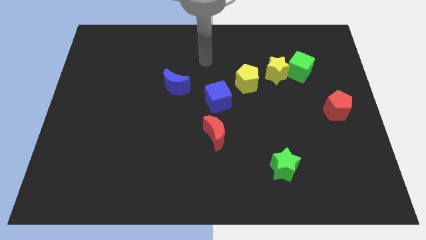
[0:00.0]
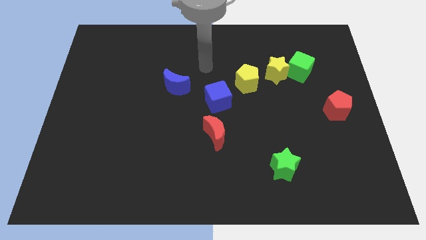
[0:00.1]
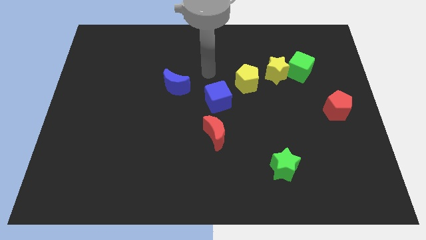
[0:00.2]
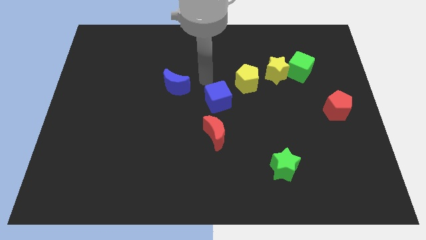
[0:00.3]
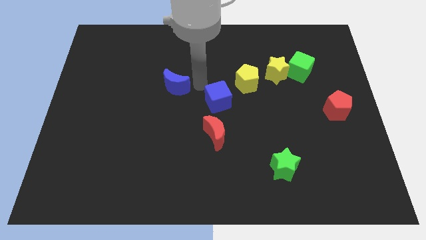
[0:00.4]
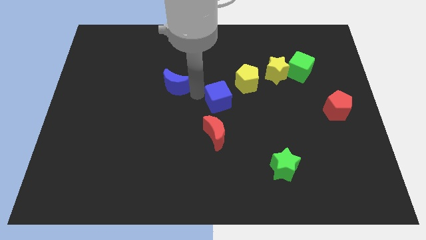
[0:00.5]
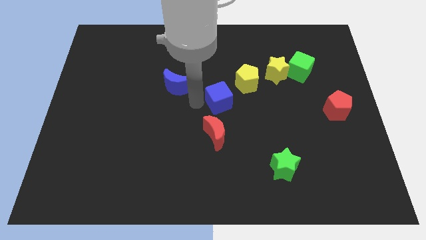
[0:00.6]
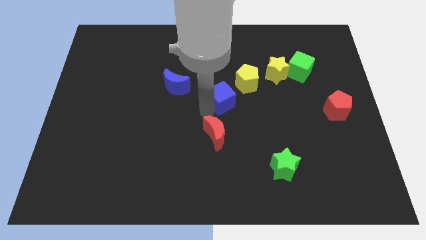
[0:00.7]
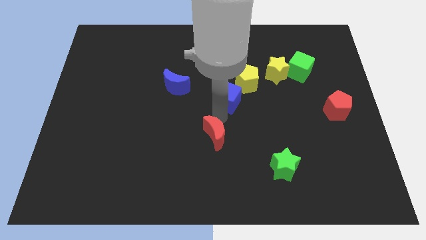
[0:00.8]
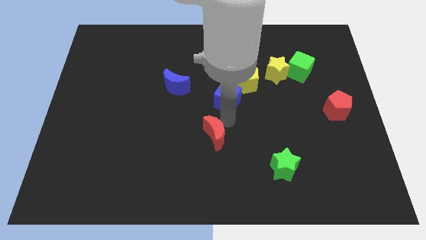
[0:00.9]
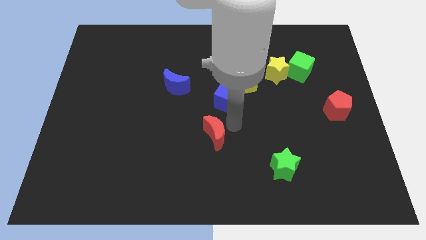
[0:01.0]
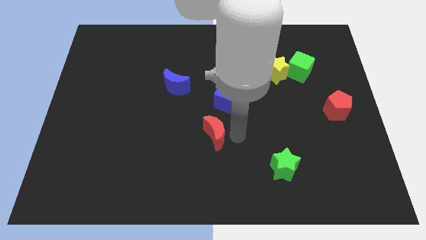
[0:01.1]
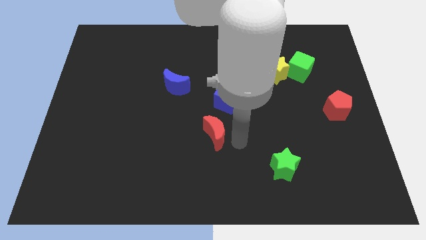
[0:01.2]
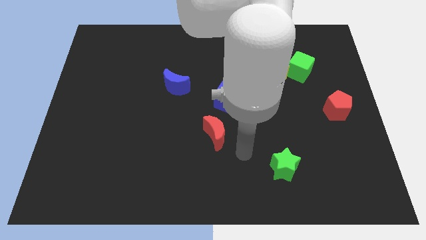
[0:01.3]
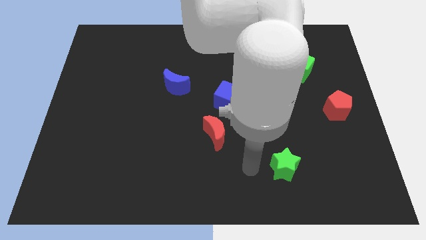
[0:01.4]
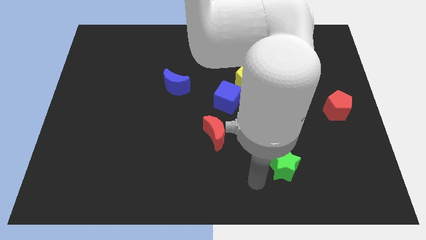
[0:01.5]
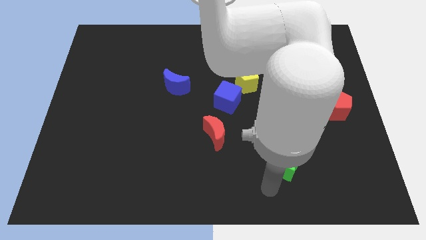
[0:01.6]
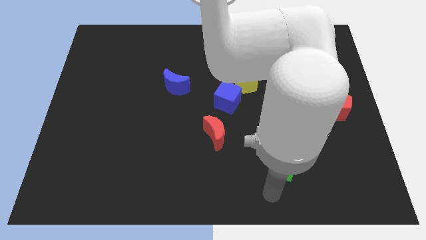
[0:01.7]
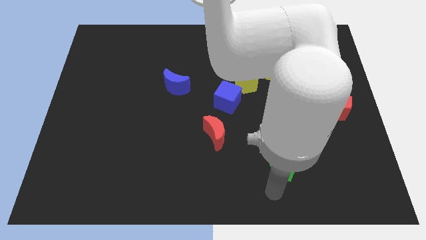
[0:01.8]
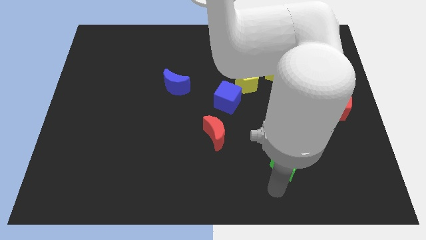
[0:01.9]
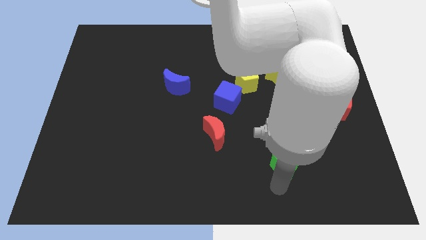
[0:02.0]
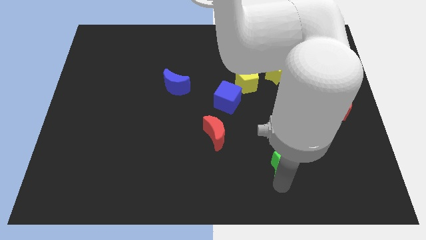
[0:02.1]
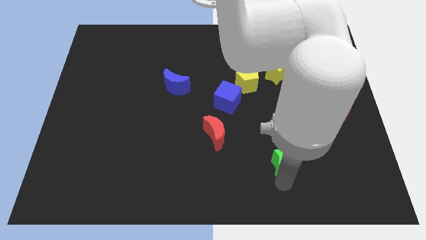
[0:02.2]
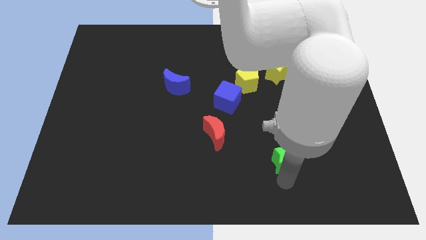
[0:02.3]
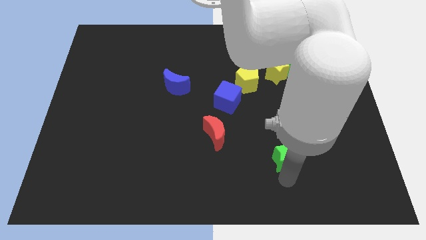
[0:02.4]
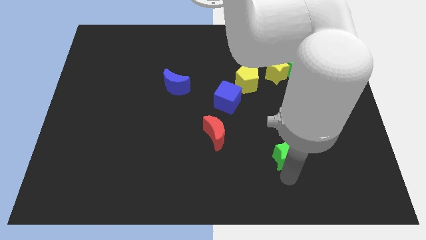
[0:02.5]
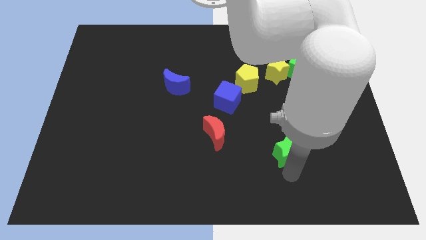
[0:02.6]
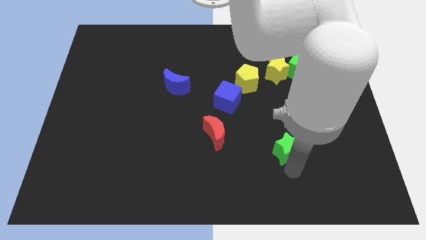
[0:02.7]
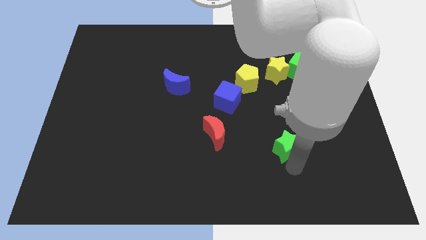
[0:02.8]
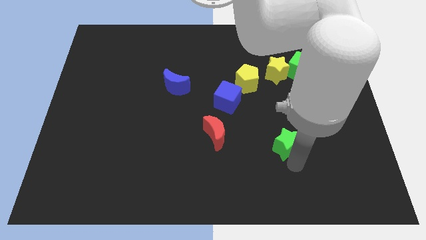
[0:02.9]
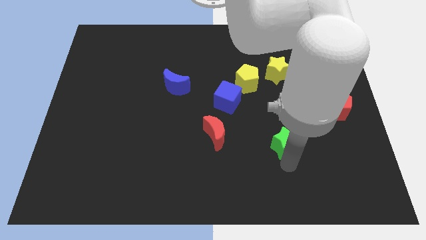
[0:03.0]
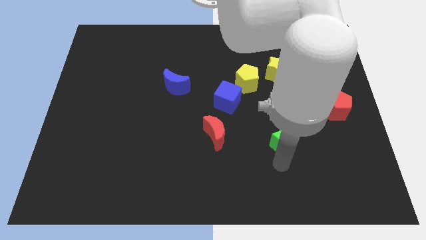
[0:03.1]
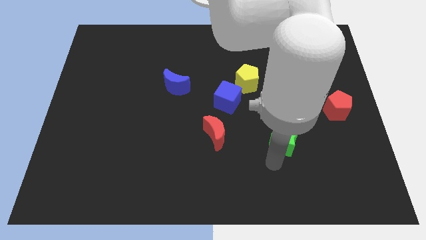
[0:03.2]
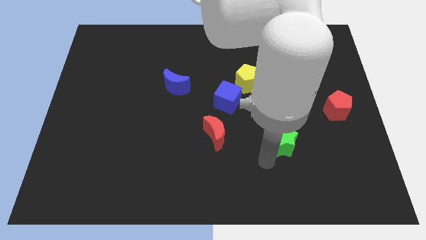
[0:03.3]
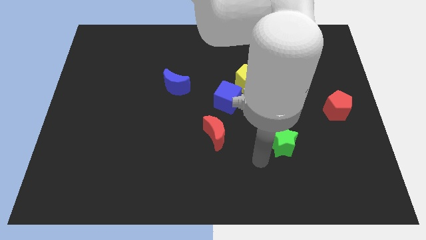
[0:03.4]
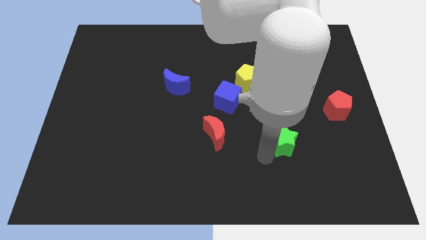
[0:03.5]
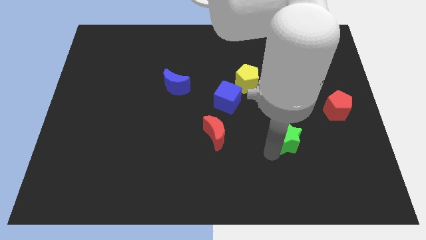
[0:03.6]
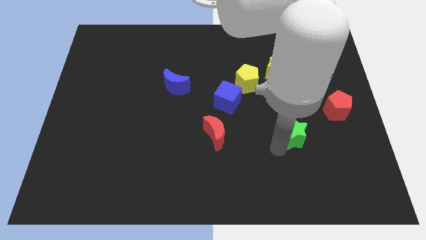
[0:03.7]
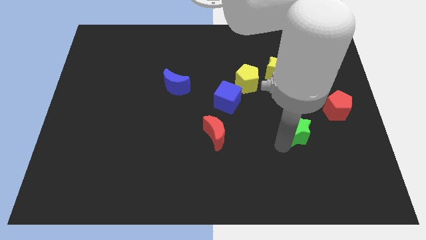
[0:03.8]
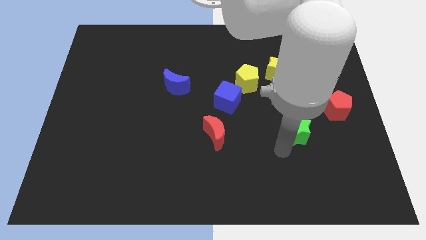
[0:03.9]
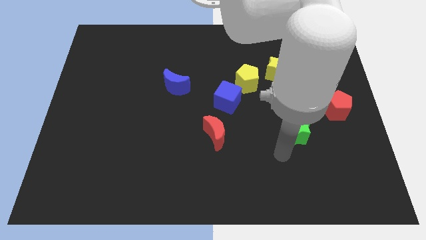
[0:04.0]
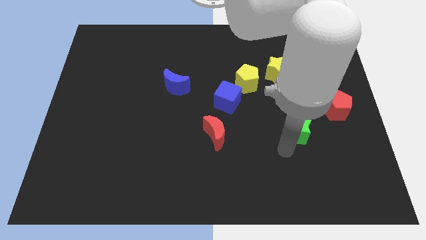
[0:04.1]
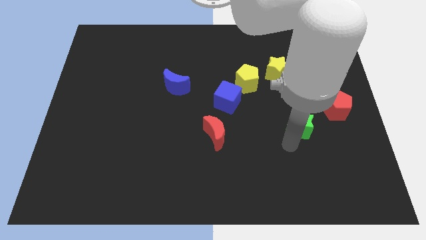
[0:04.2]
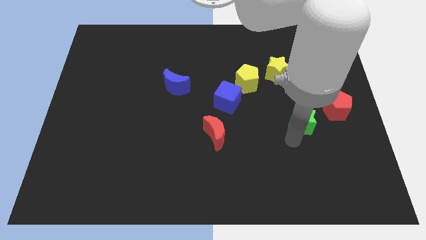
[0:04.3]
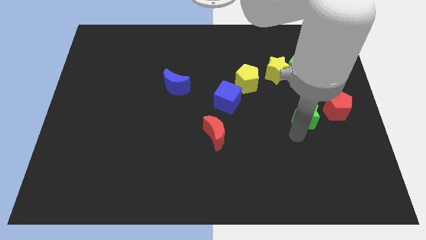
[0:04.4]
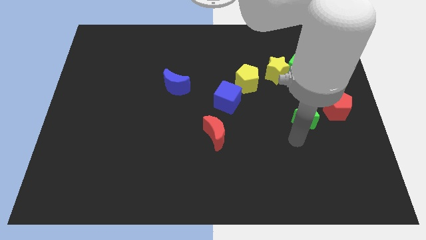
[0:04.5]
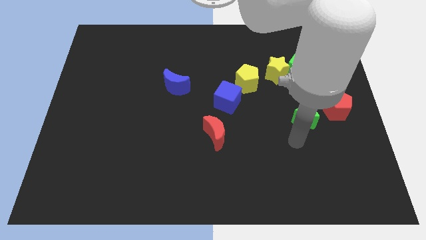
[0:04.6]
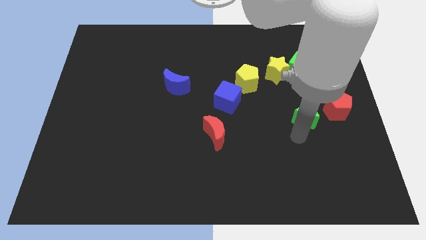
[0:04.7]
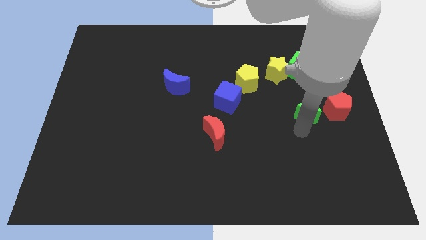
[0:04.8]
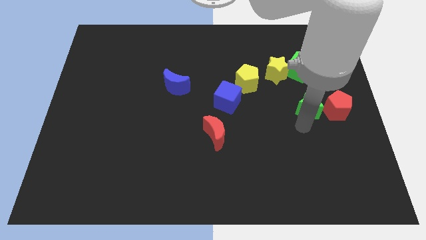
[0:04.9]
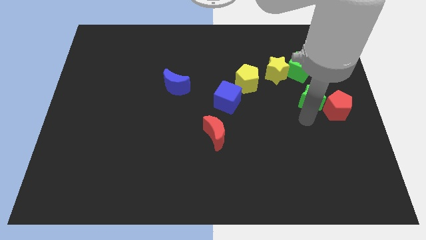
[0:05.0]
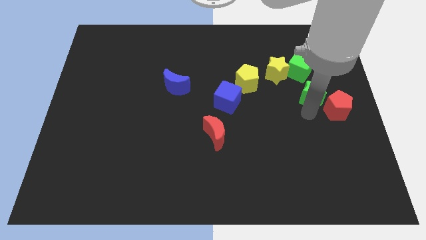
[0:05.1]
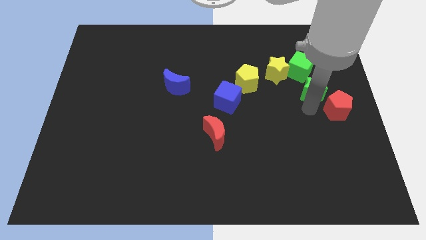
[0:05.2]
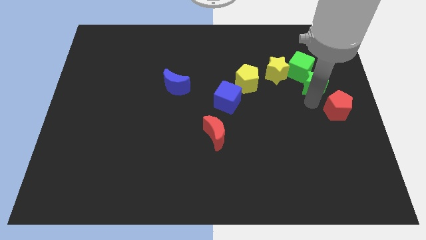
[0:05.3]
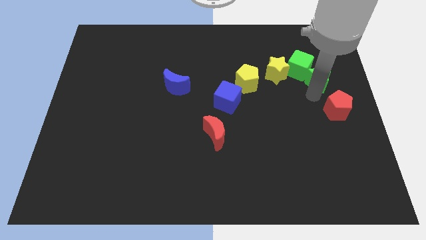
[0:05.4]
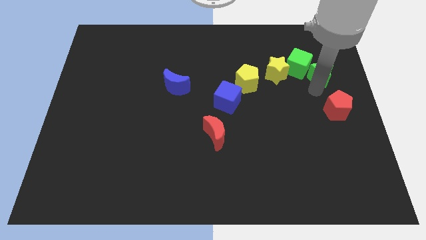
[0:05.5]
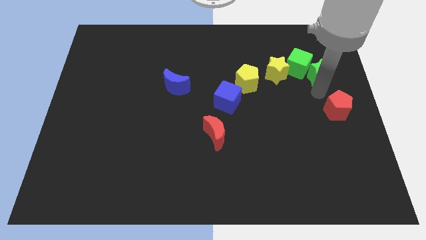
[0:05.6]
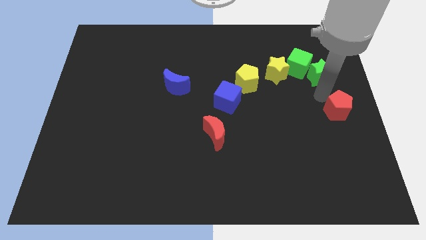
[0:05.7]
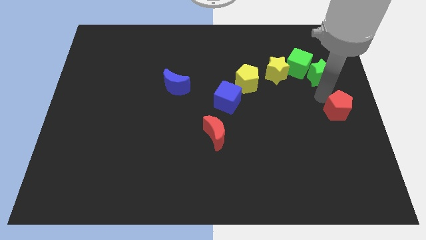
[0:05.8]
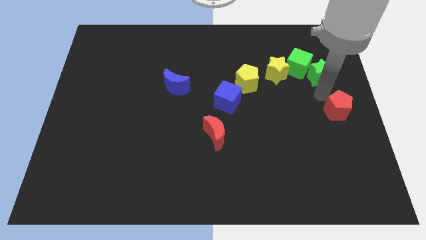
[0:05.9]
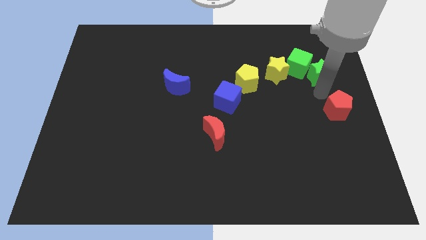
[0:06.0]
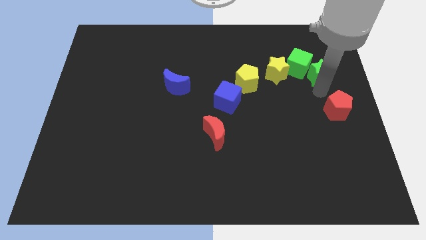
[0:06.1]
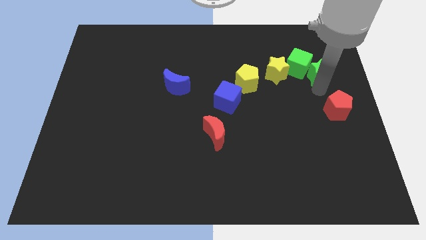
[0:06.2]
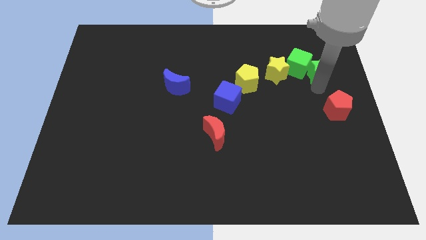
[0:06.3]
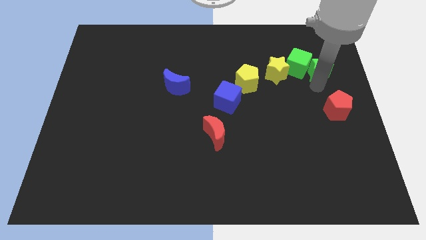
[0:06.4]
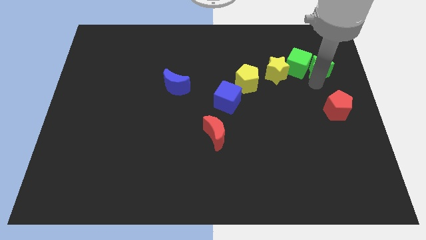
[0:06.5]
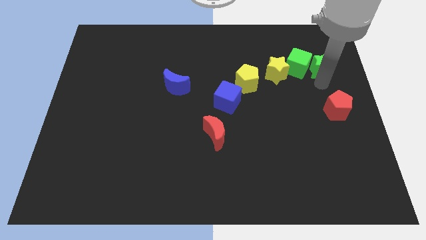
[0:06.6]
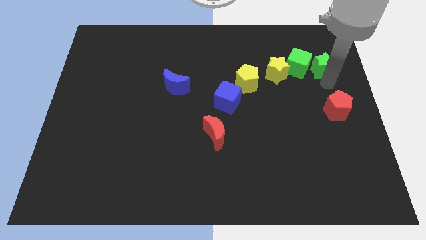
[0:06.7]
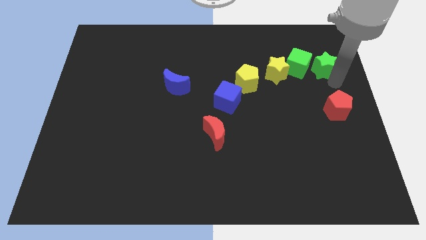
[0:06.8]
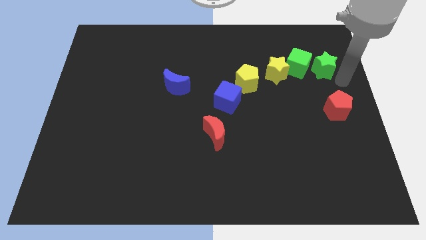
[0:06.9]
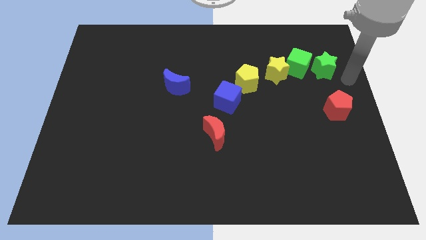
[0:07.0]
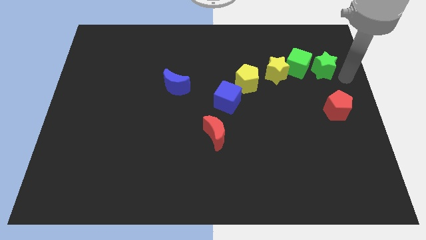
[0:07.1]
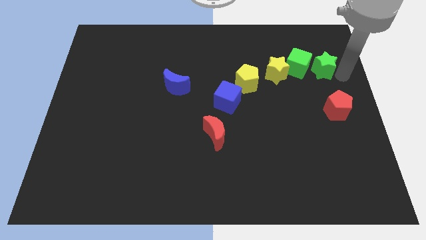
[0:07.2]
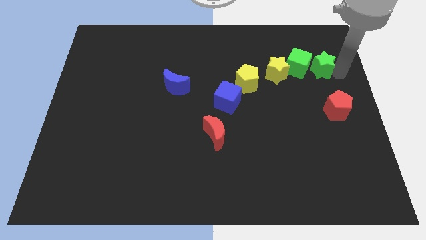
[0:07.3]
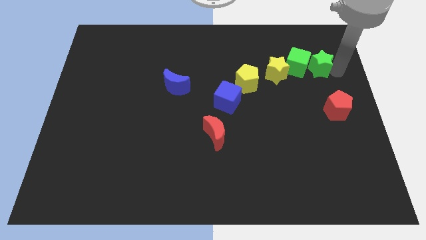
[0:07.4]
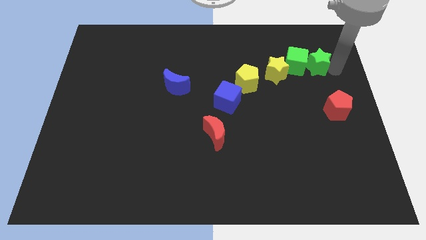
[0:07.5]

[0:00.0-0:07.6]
move the green star upwards

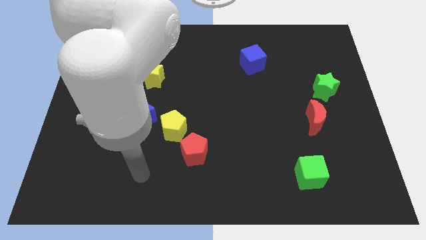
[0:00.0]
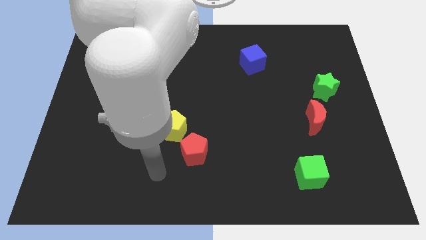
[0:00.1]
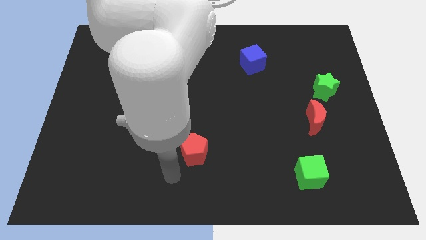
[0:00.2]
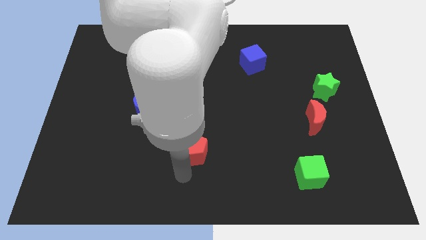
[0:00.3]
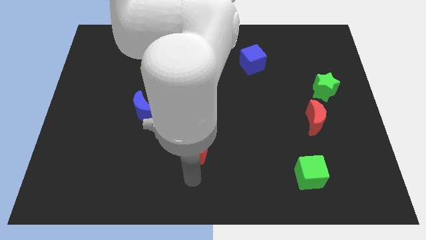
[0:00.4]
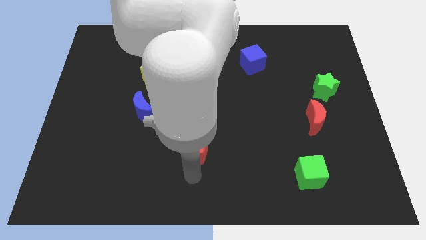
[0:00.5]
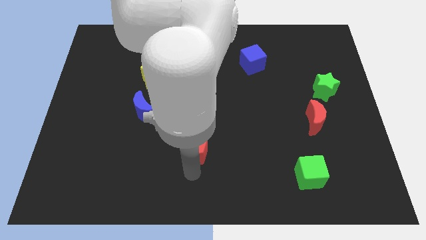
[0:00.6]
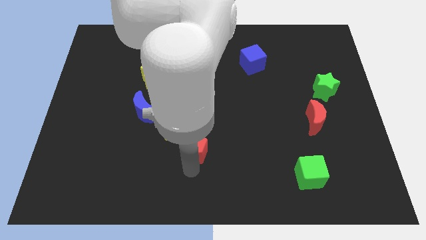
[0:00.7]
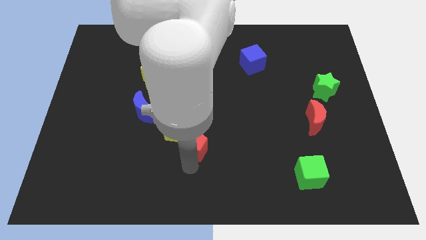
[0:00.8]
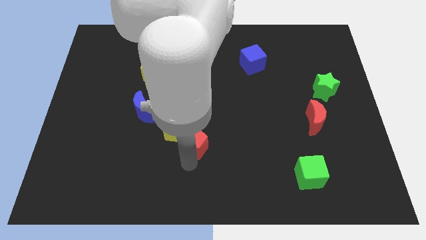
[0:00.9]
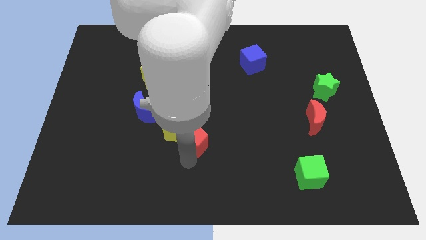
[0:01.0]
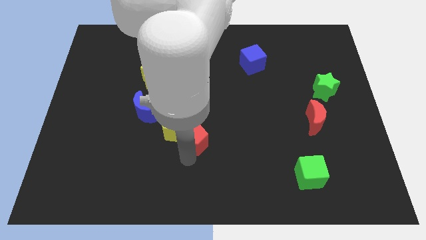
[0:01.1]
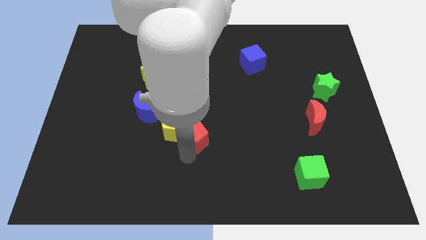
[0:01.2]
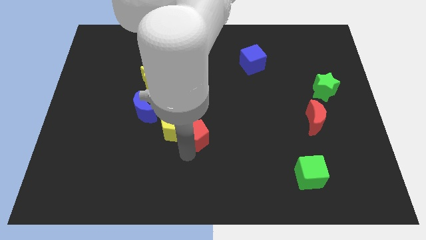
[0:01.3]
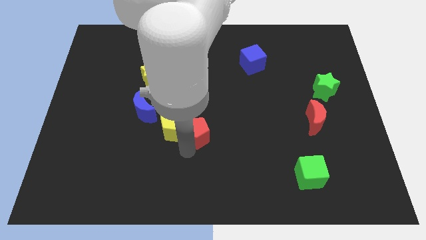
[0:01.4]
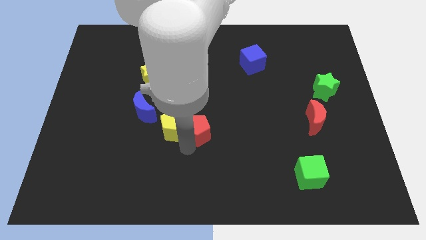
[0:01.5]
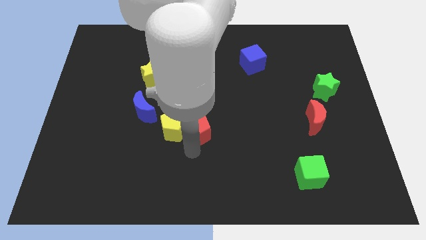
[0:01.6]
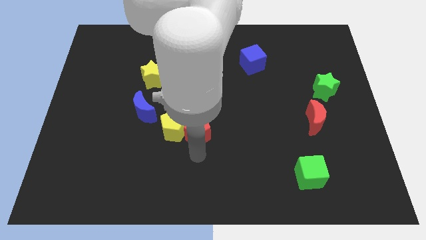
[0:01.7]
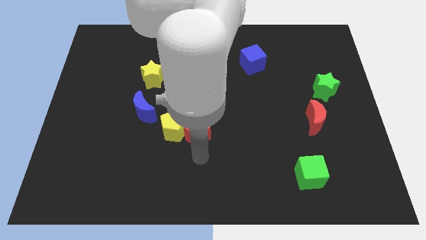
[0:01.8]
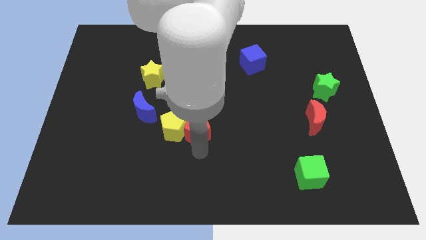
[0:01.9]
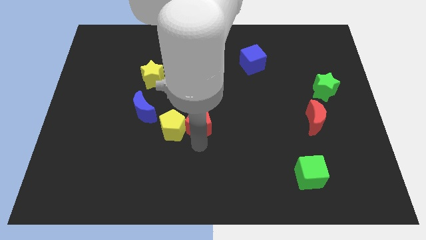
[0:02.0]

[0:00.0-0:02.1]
push the red pentagon somewhat up
